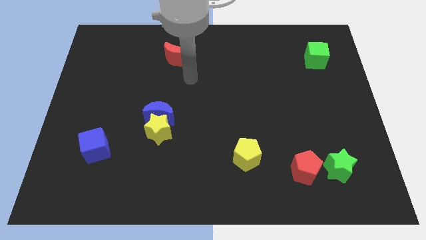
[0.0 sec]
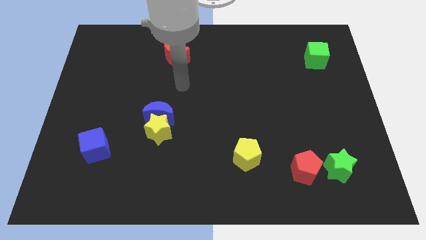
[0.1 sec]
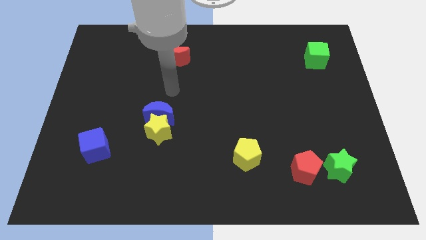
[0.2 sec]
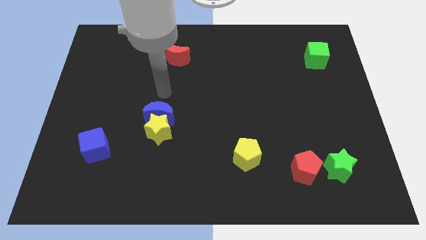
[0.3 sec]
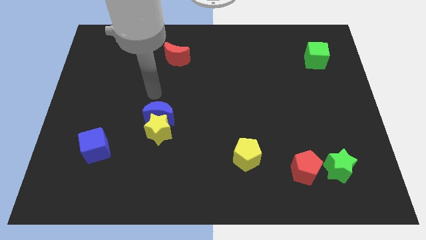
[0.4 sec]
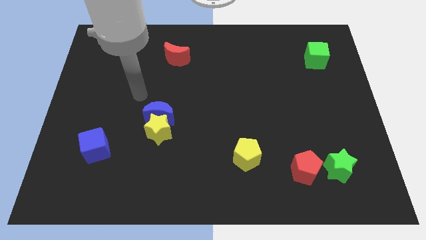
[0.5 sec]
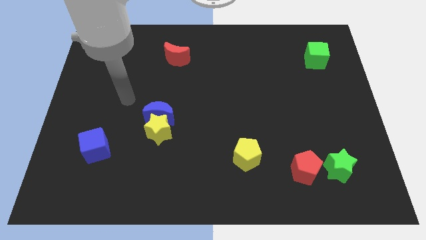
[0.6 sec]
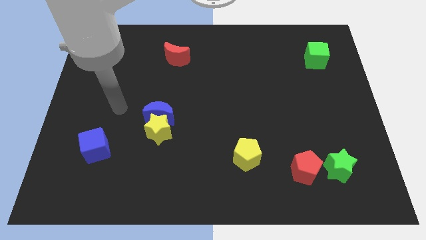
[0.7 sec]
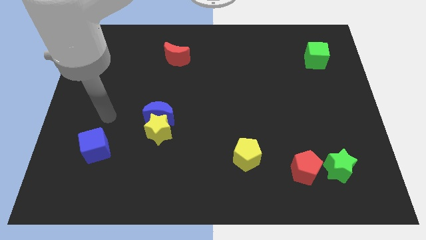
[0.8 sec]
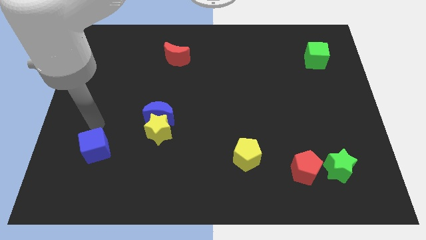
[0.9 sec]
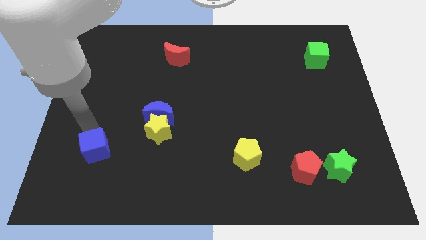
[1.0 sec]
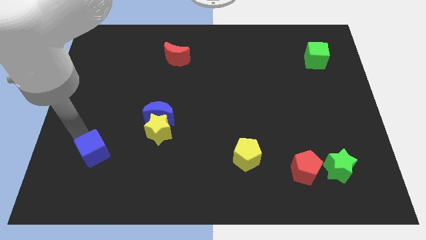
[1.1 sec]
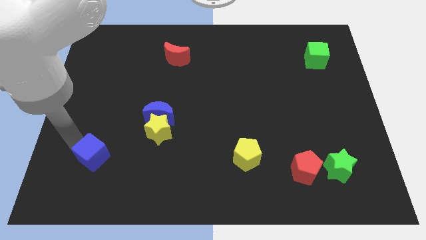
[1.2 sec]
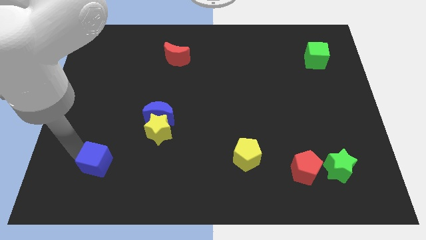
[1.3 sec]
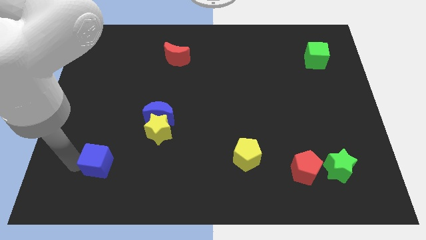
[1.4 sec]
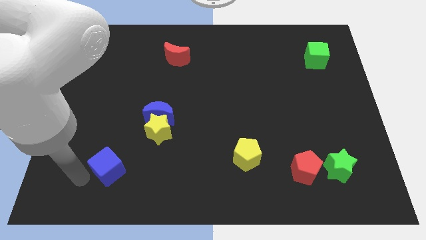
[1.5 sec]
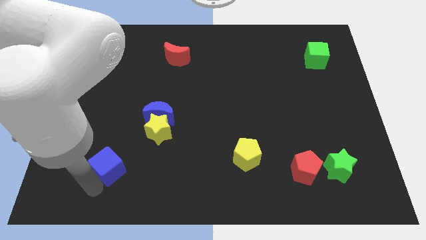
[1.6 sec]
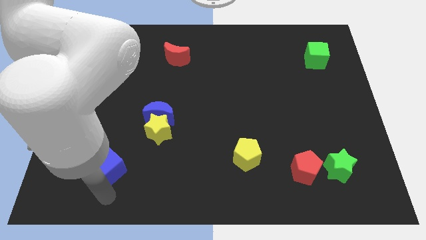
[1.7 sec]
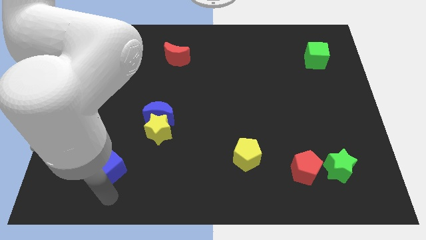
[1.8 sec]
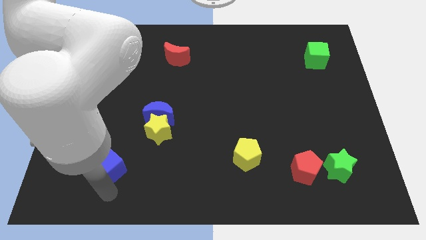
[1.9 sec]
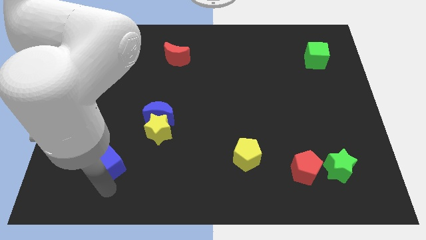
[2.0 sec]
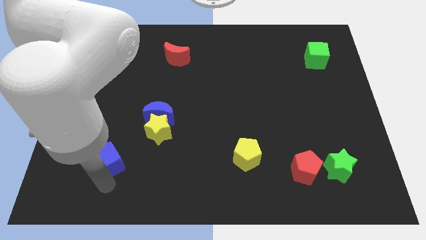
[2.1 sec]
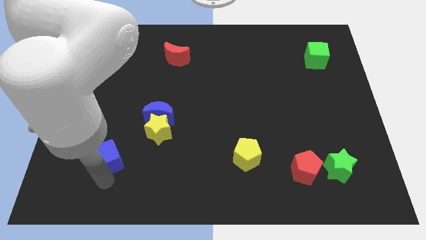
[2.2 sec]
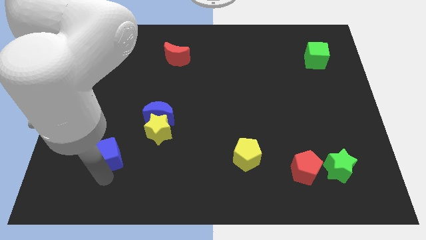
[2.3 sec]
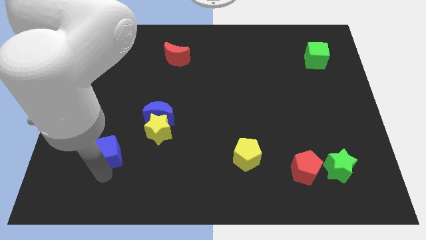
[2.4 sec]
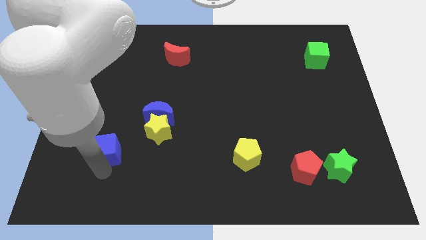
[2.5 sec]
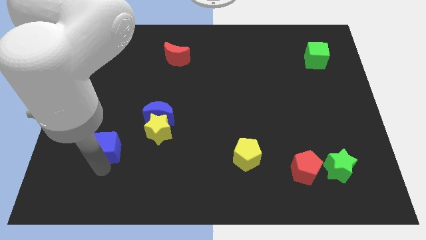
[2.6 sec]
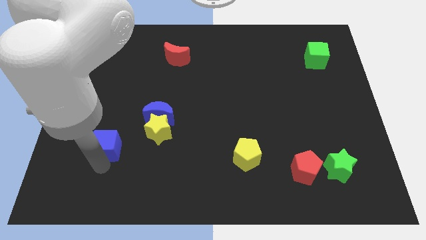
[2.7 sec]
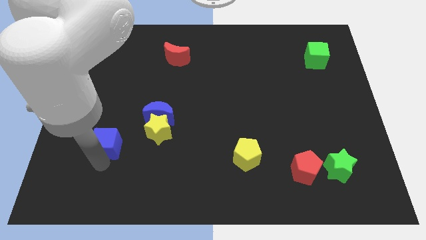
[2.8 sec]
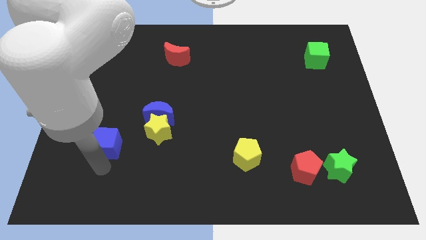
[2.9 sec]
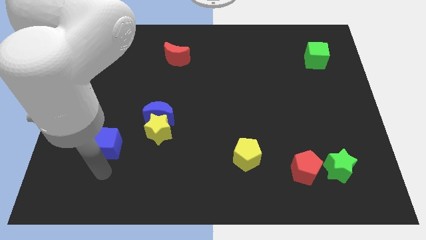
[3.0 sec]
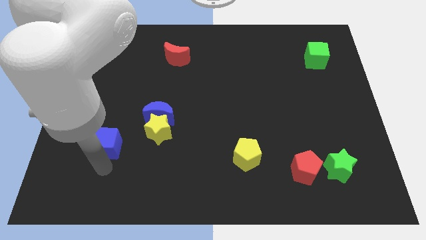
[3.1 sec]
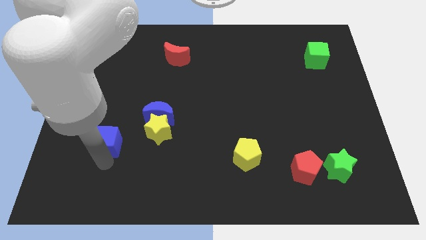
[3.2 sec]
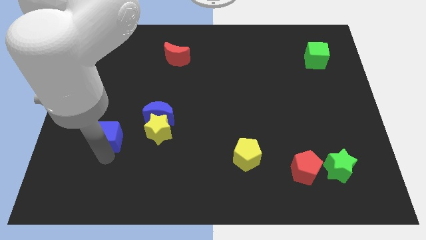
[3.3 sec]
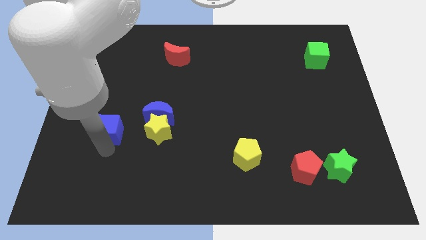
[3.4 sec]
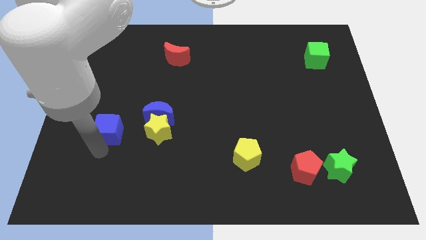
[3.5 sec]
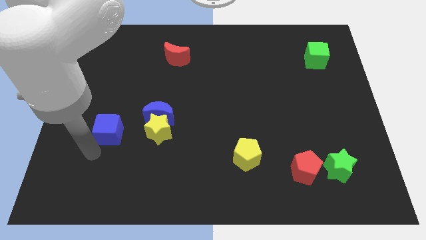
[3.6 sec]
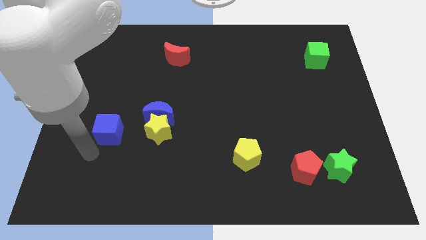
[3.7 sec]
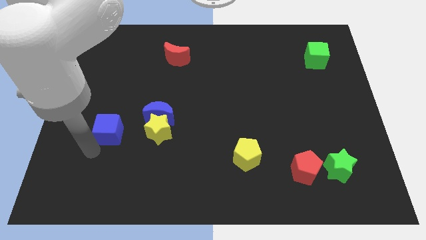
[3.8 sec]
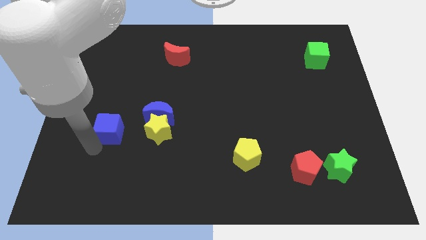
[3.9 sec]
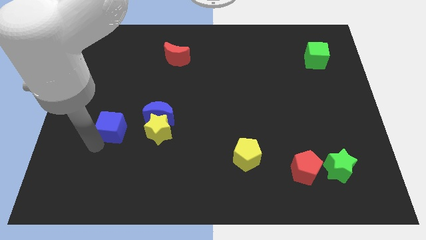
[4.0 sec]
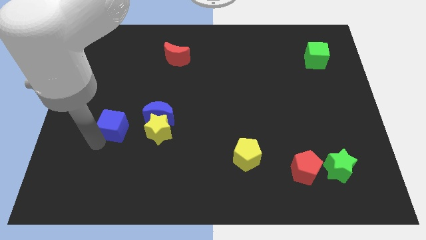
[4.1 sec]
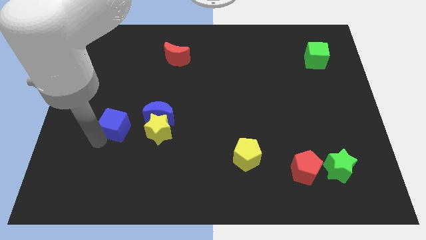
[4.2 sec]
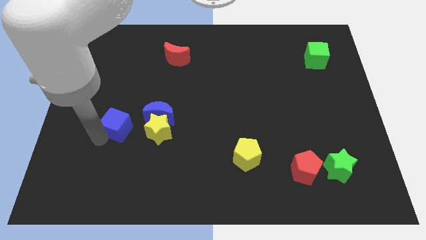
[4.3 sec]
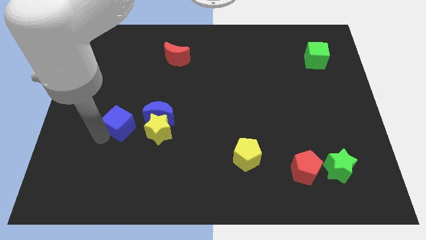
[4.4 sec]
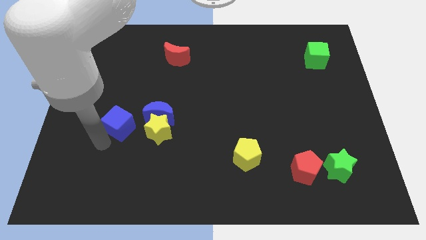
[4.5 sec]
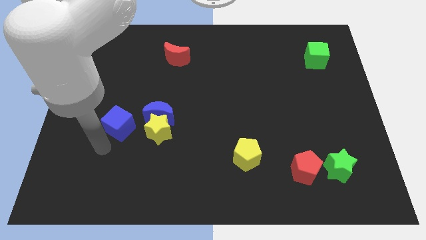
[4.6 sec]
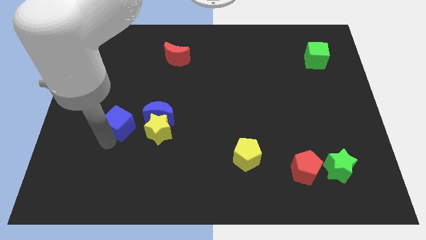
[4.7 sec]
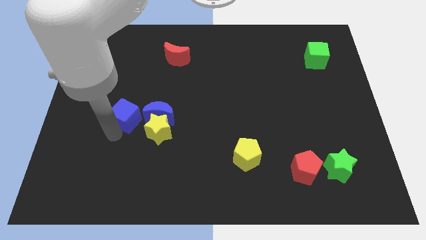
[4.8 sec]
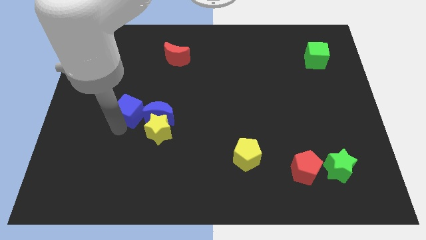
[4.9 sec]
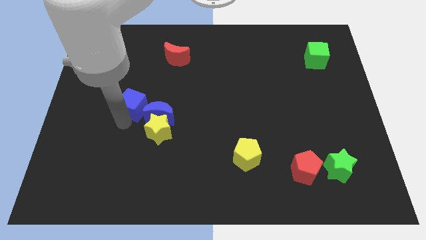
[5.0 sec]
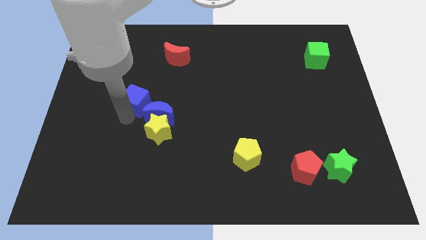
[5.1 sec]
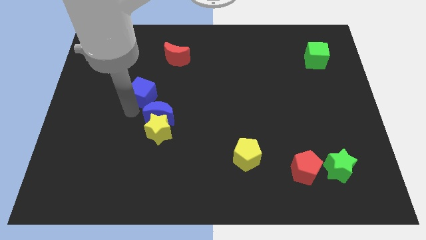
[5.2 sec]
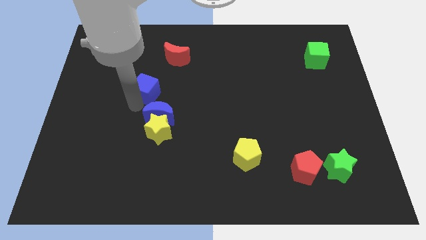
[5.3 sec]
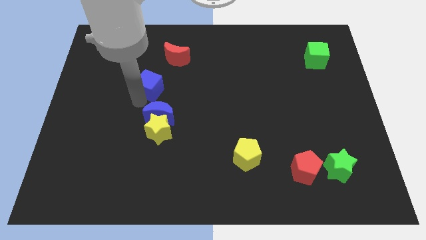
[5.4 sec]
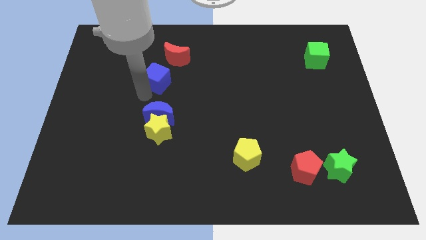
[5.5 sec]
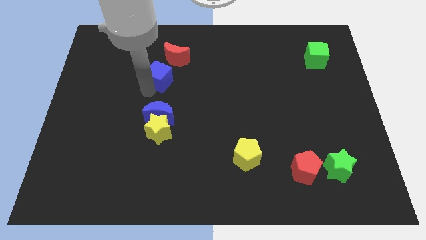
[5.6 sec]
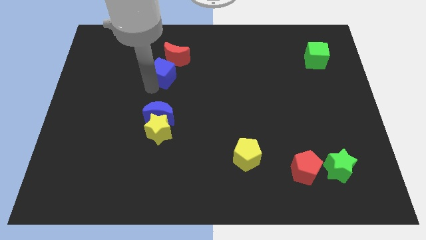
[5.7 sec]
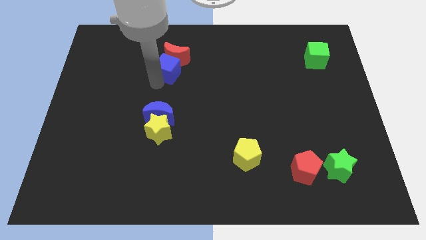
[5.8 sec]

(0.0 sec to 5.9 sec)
push the blue cube close to the red moon

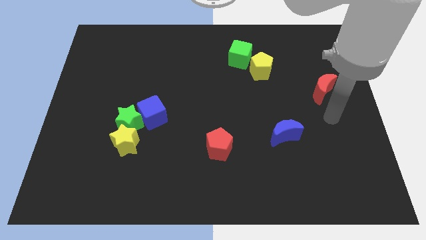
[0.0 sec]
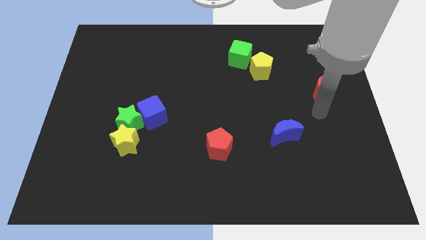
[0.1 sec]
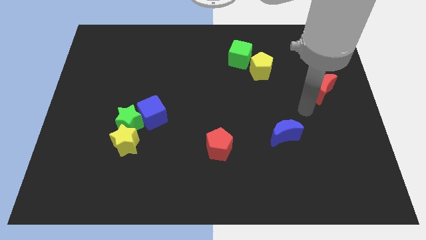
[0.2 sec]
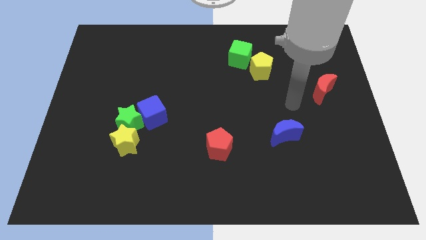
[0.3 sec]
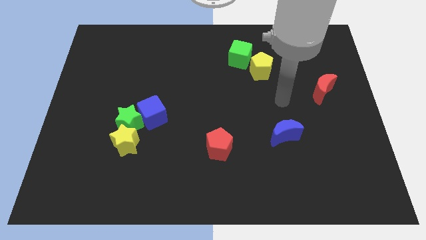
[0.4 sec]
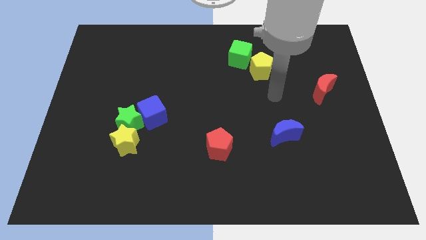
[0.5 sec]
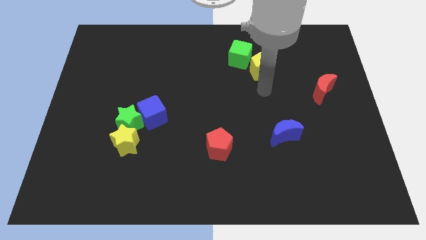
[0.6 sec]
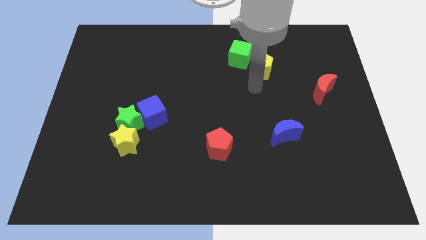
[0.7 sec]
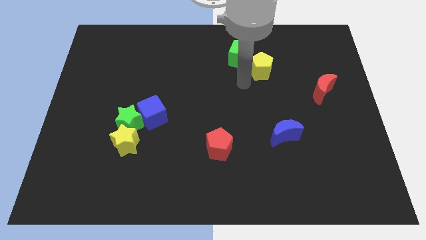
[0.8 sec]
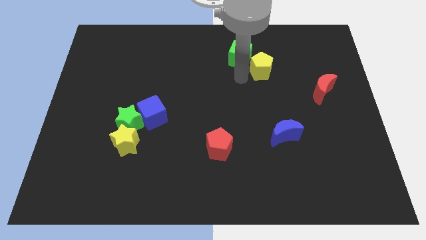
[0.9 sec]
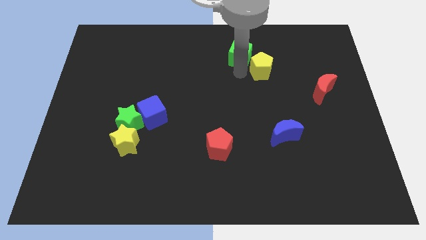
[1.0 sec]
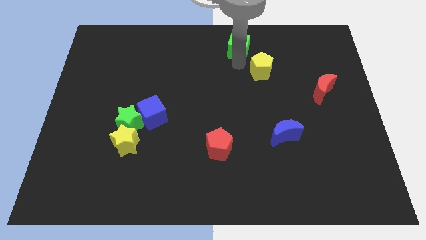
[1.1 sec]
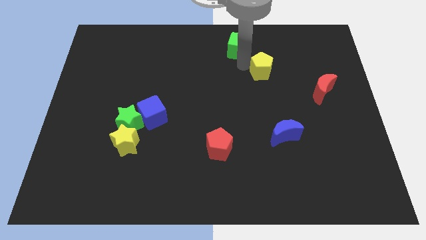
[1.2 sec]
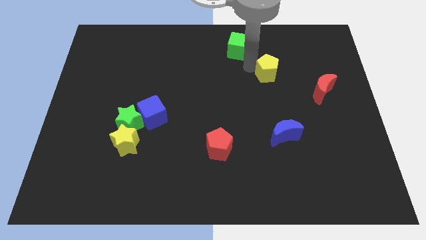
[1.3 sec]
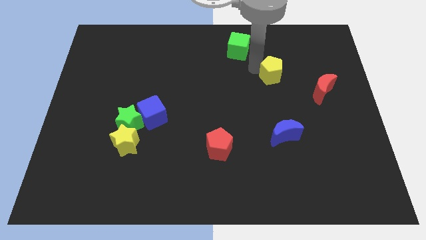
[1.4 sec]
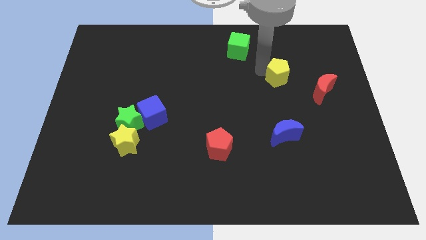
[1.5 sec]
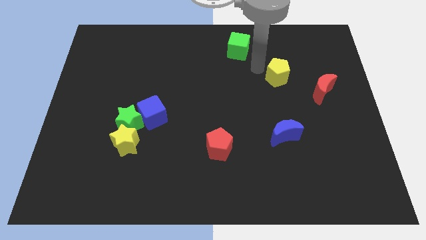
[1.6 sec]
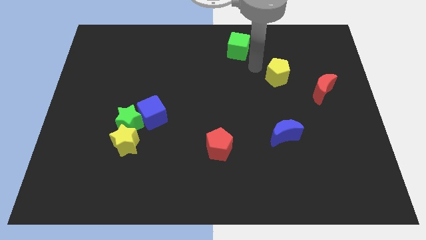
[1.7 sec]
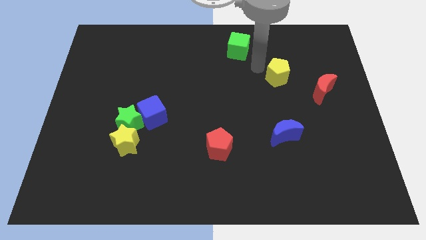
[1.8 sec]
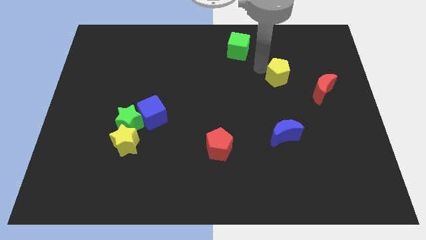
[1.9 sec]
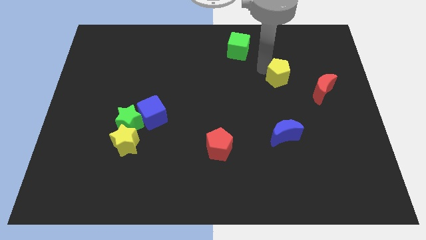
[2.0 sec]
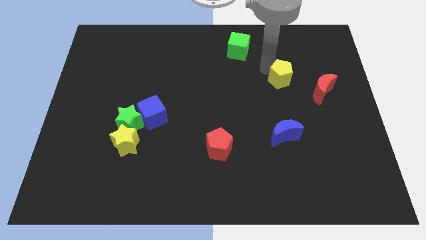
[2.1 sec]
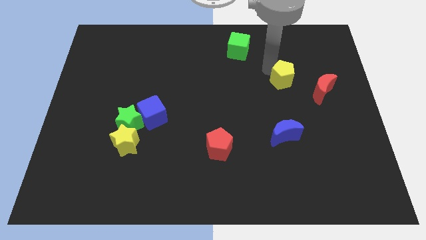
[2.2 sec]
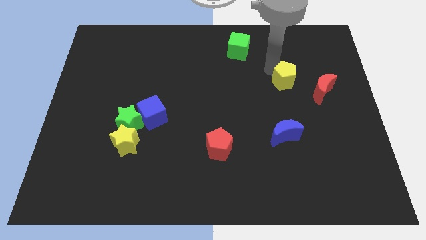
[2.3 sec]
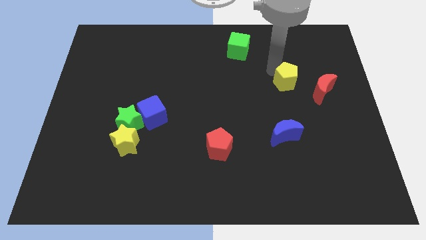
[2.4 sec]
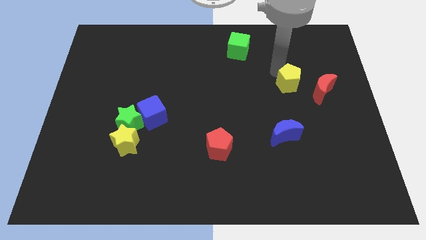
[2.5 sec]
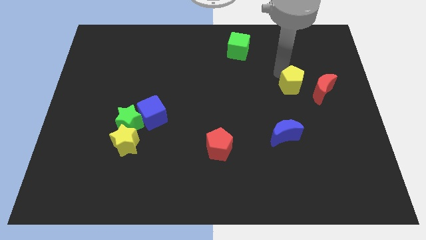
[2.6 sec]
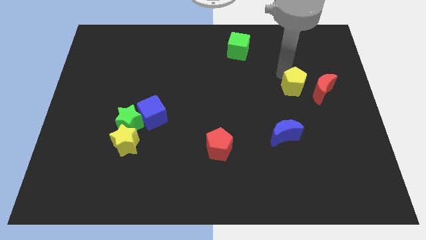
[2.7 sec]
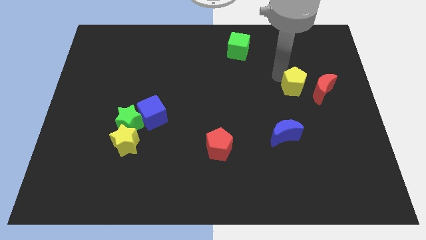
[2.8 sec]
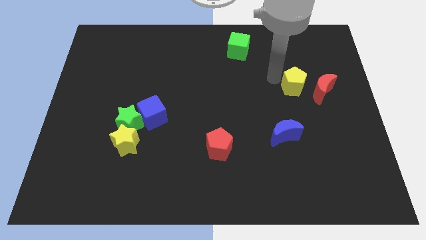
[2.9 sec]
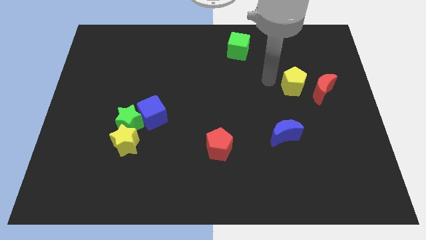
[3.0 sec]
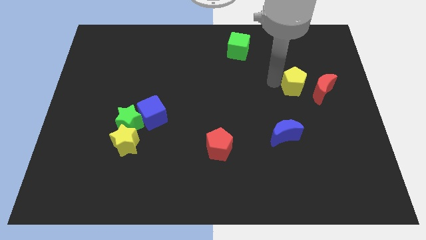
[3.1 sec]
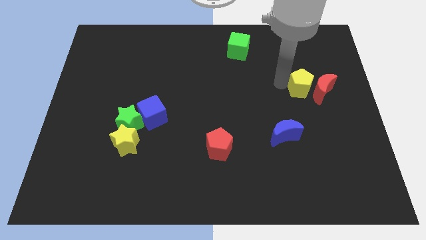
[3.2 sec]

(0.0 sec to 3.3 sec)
push the yellow pentagon next to the red moon
